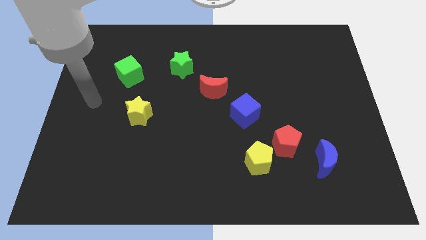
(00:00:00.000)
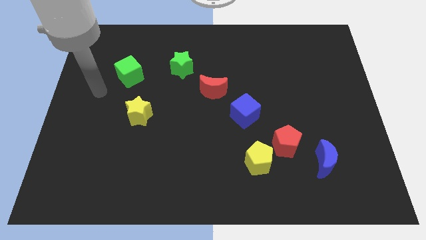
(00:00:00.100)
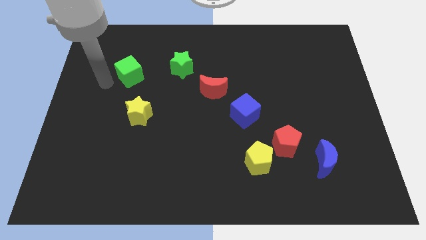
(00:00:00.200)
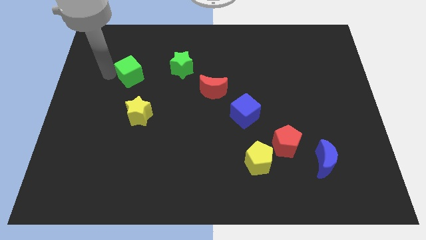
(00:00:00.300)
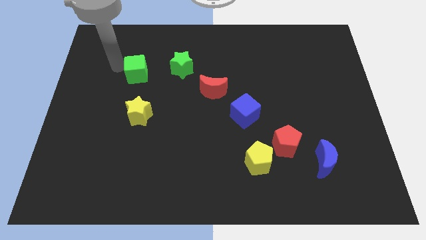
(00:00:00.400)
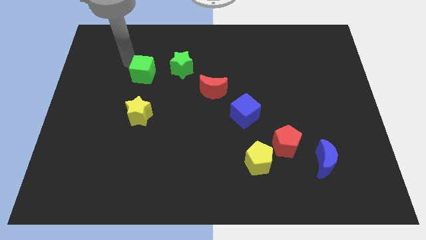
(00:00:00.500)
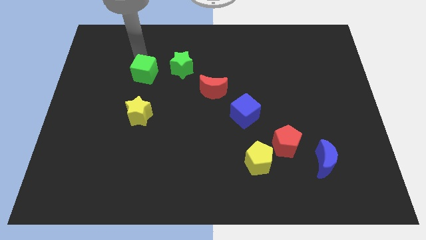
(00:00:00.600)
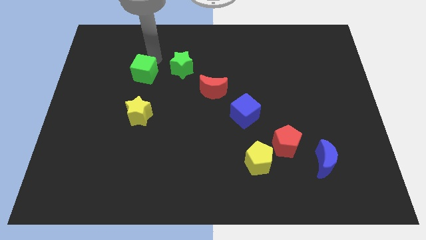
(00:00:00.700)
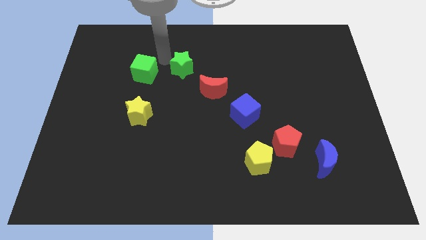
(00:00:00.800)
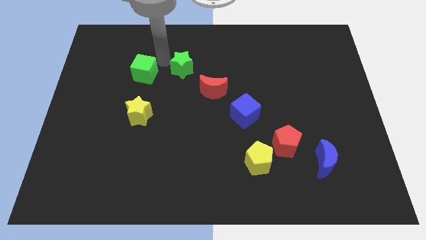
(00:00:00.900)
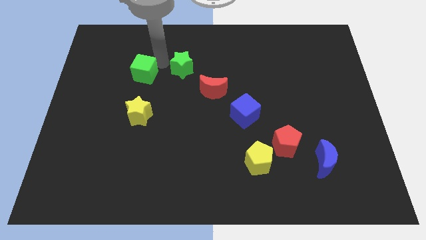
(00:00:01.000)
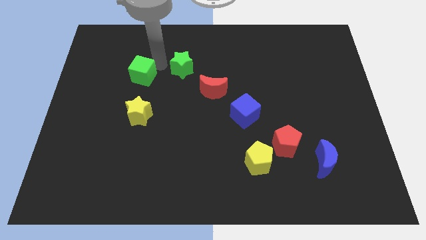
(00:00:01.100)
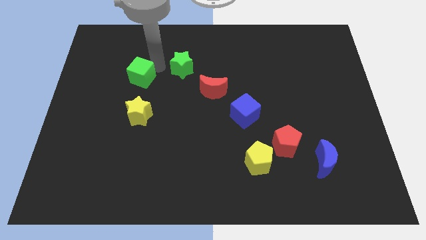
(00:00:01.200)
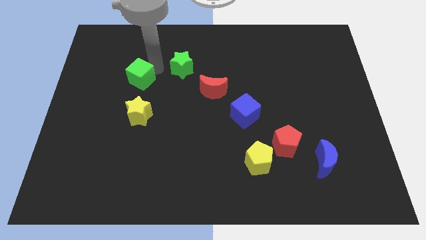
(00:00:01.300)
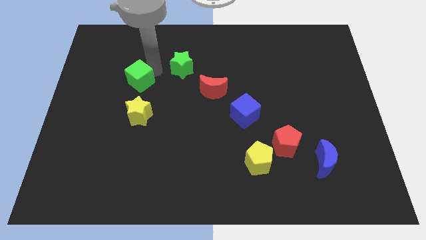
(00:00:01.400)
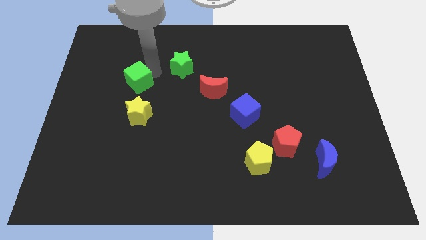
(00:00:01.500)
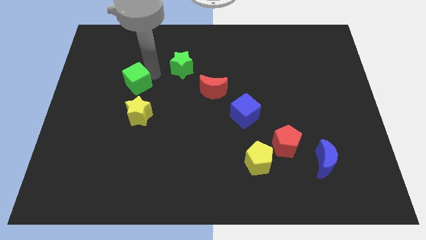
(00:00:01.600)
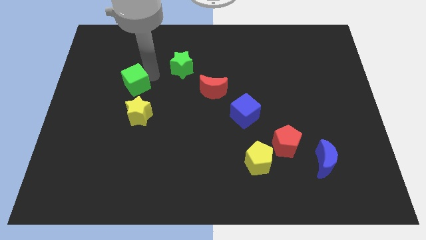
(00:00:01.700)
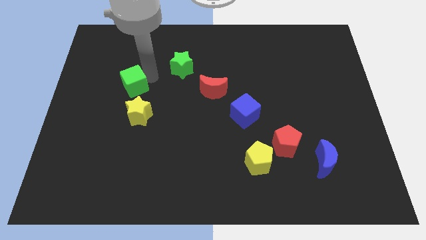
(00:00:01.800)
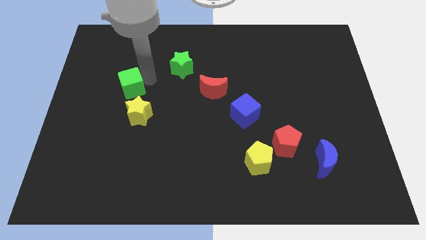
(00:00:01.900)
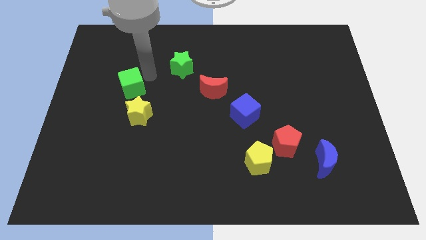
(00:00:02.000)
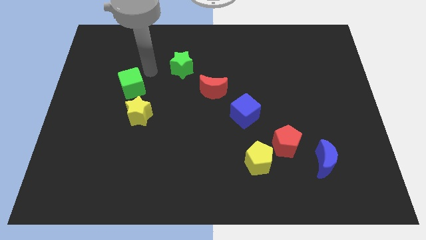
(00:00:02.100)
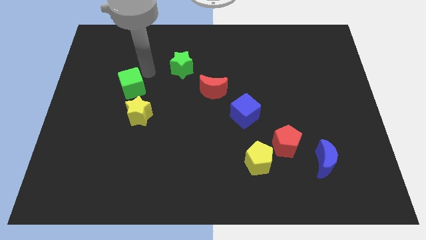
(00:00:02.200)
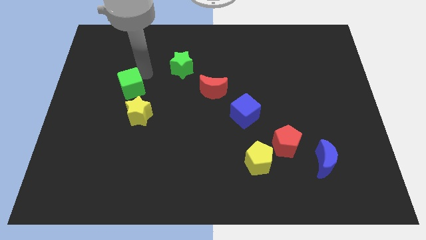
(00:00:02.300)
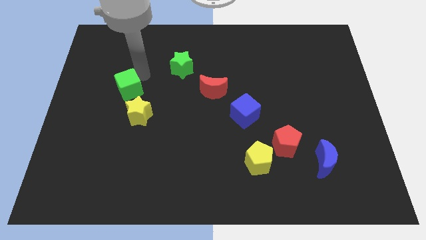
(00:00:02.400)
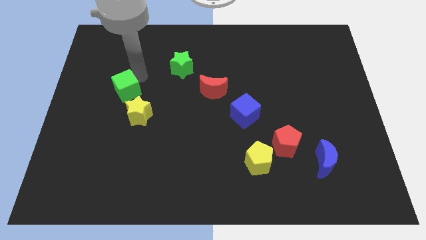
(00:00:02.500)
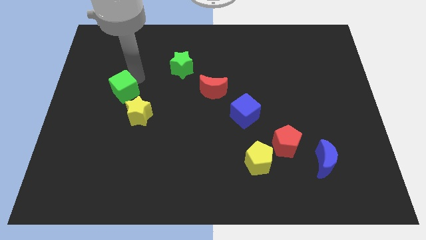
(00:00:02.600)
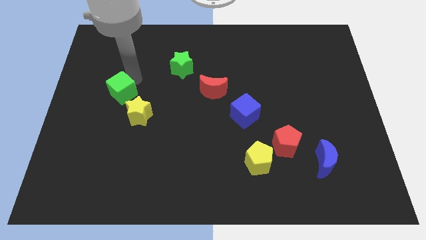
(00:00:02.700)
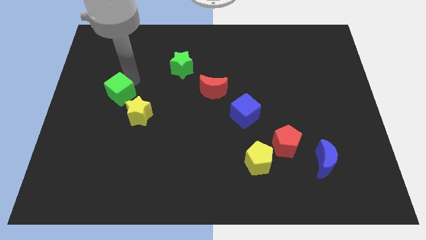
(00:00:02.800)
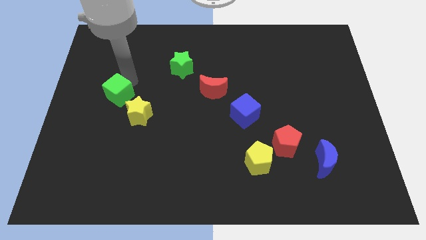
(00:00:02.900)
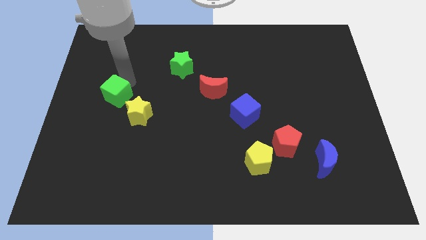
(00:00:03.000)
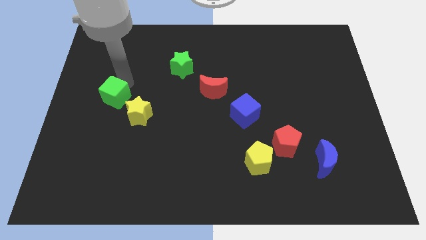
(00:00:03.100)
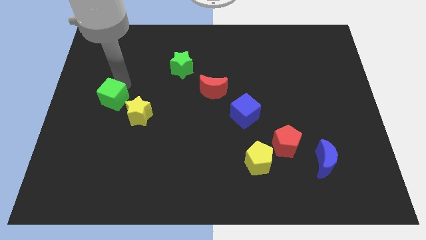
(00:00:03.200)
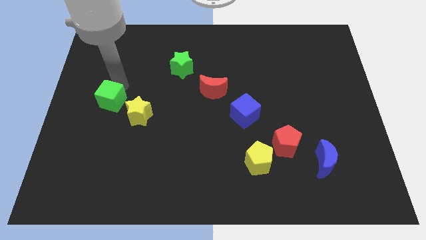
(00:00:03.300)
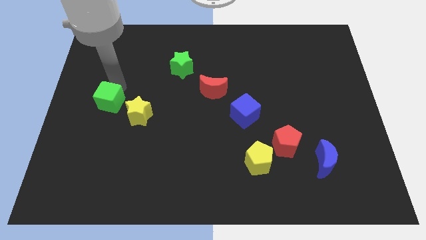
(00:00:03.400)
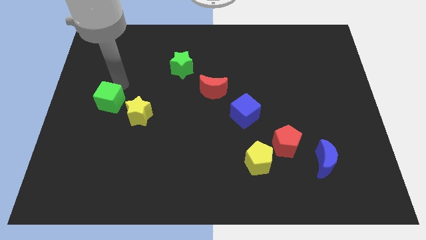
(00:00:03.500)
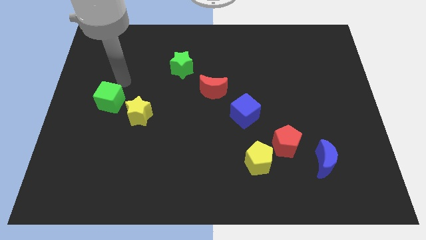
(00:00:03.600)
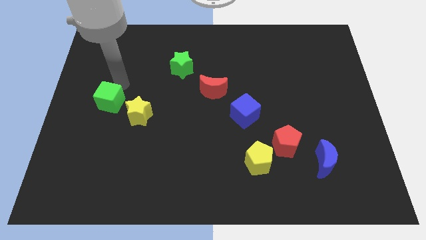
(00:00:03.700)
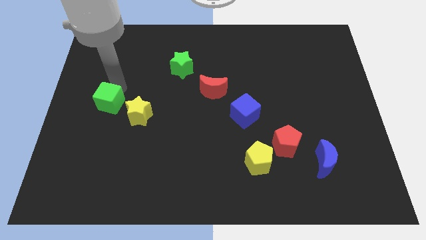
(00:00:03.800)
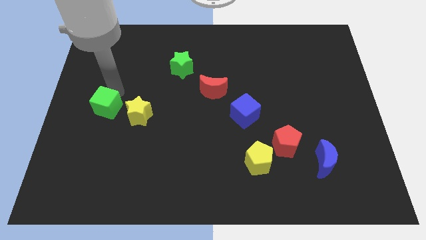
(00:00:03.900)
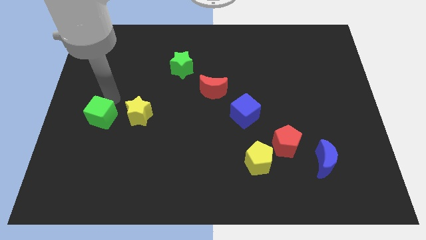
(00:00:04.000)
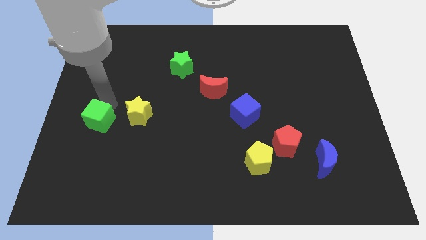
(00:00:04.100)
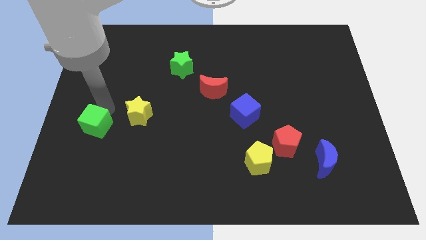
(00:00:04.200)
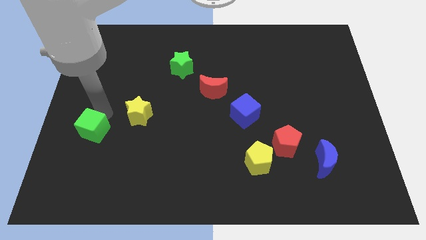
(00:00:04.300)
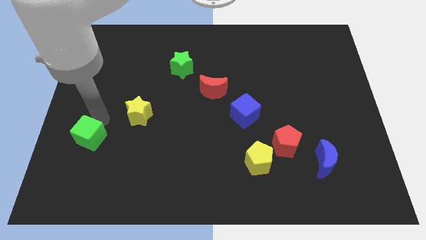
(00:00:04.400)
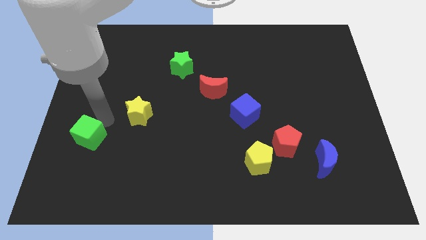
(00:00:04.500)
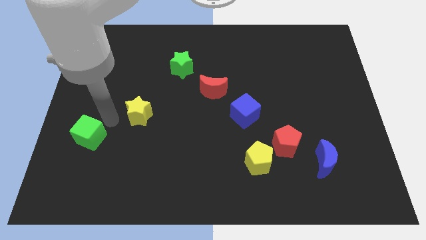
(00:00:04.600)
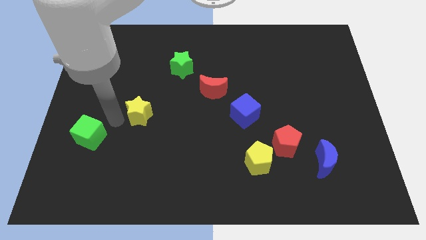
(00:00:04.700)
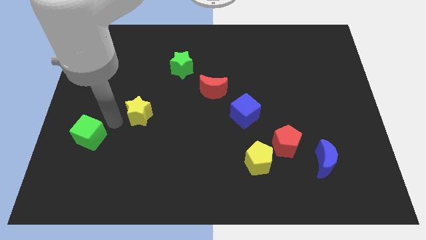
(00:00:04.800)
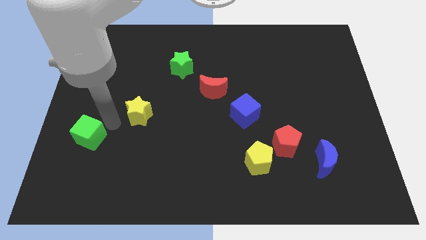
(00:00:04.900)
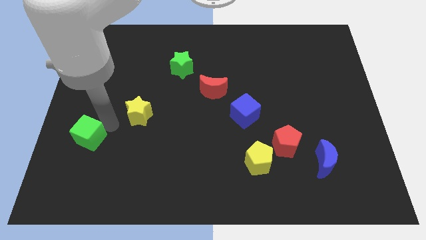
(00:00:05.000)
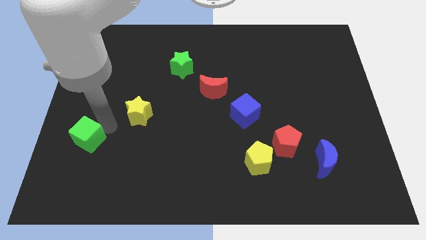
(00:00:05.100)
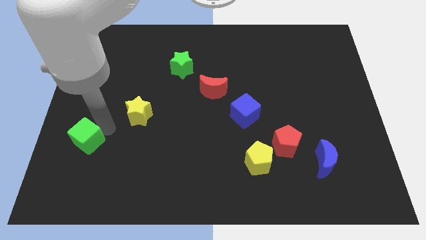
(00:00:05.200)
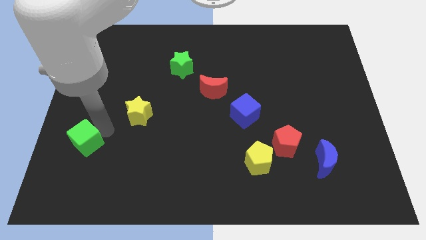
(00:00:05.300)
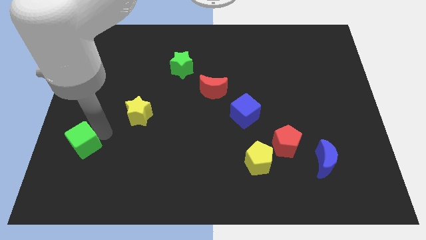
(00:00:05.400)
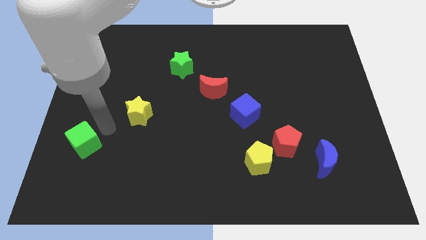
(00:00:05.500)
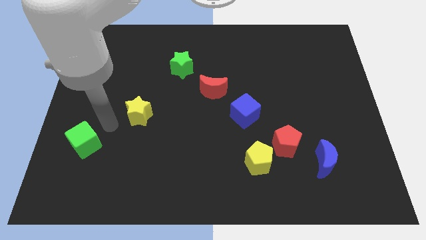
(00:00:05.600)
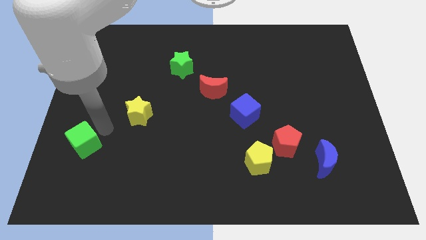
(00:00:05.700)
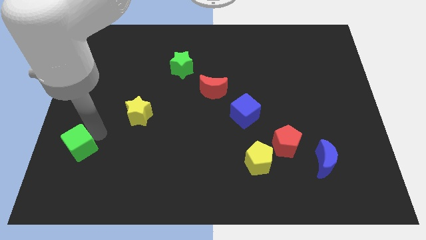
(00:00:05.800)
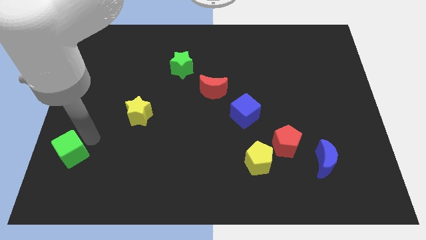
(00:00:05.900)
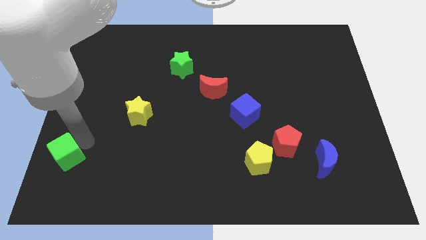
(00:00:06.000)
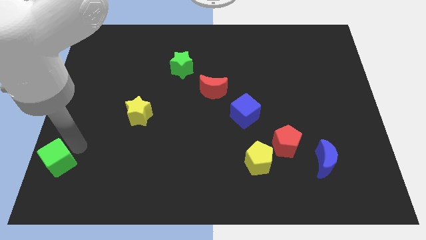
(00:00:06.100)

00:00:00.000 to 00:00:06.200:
move the green cube to the bottom left corner
